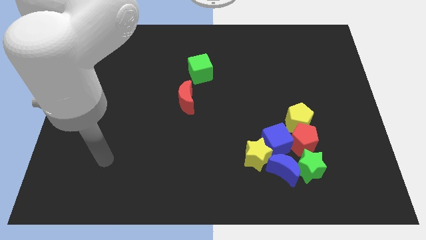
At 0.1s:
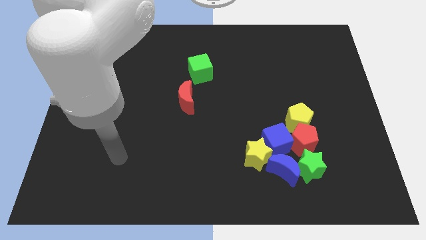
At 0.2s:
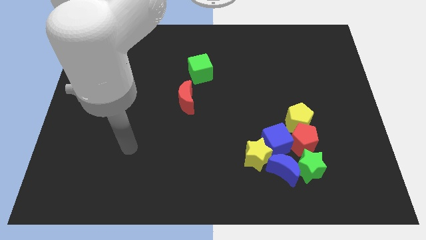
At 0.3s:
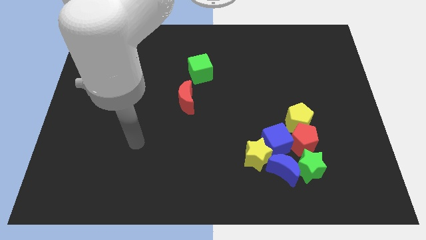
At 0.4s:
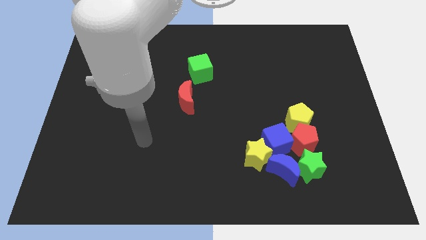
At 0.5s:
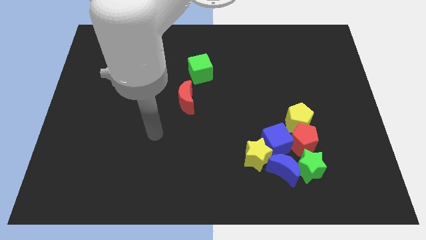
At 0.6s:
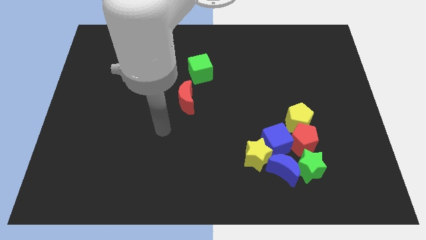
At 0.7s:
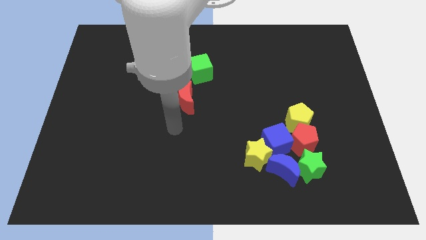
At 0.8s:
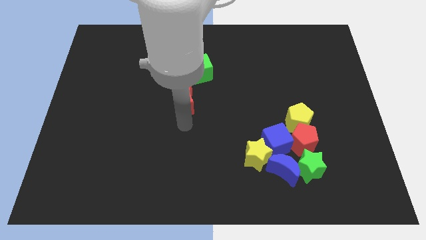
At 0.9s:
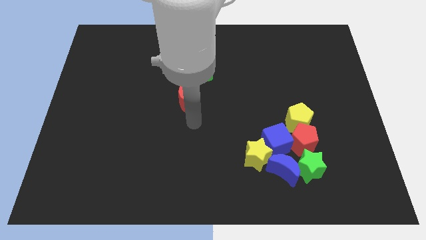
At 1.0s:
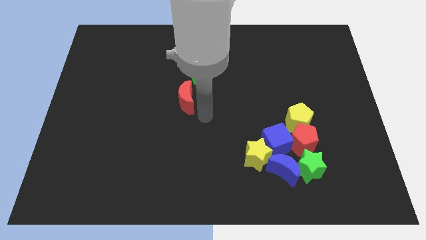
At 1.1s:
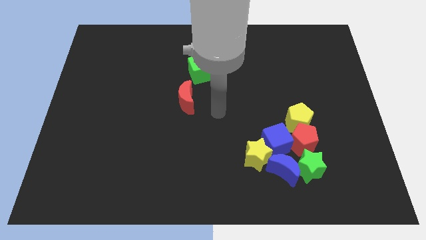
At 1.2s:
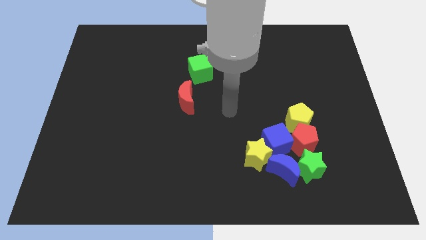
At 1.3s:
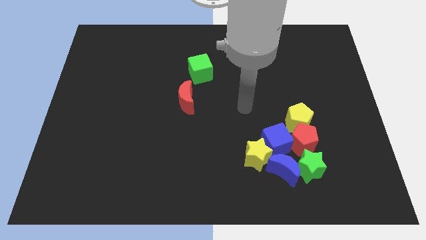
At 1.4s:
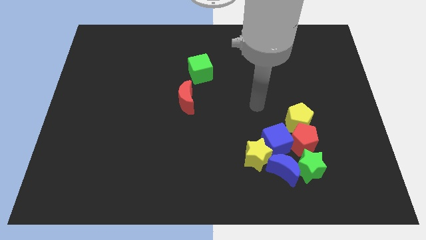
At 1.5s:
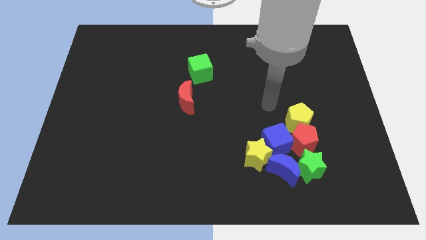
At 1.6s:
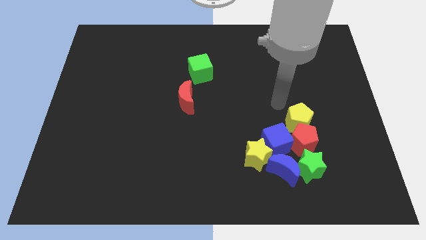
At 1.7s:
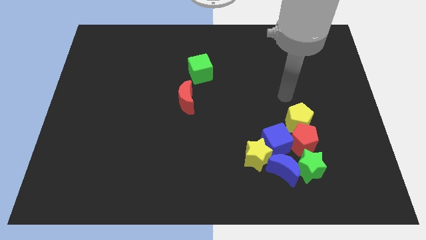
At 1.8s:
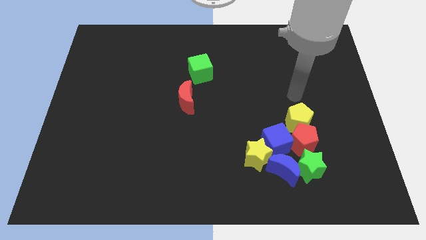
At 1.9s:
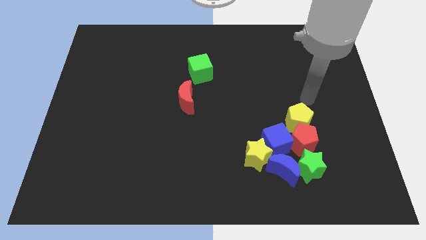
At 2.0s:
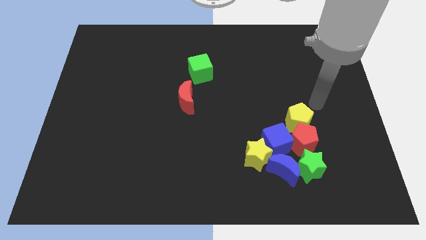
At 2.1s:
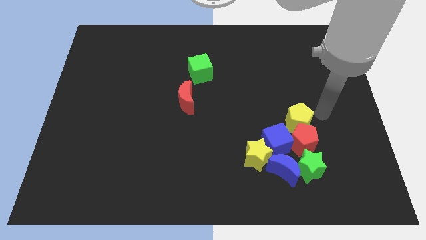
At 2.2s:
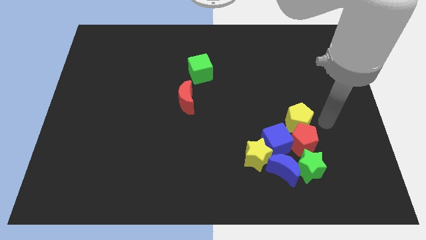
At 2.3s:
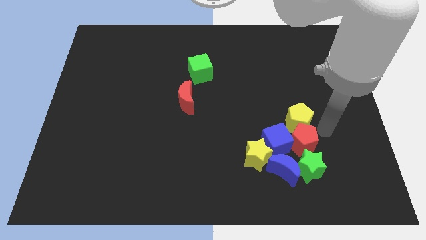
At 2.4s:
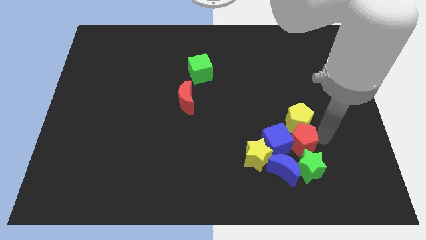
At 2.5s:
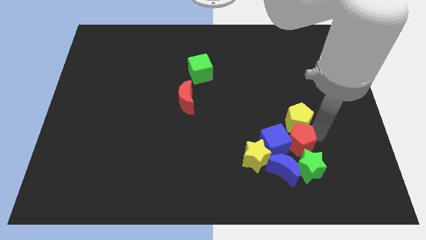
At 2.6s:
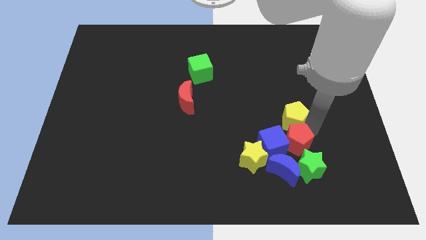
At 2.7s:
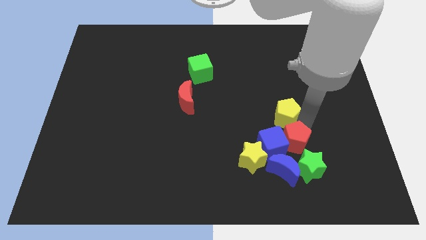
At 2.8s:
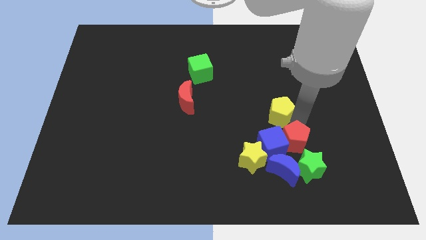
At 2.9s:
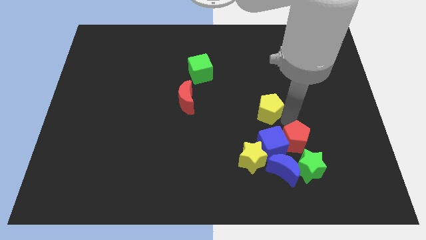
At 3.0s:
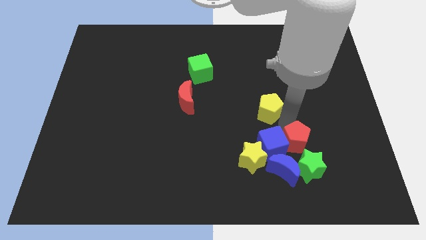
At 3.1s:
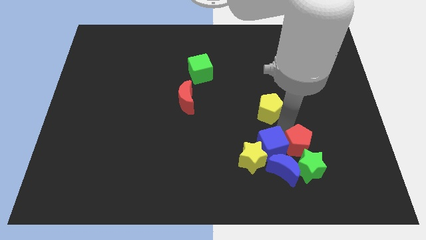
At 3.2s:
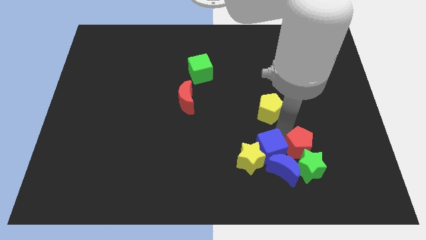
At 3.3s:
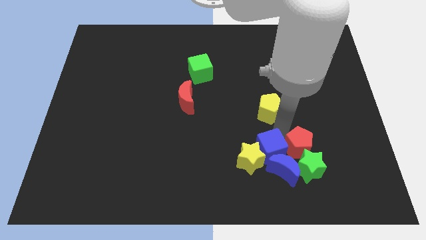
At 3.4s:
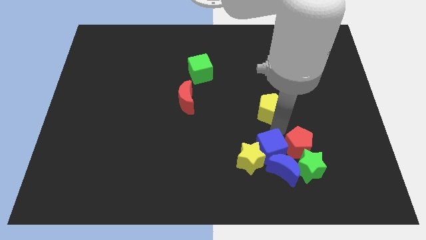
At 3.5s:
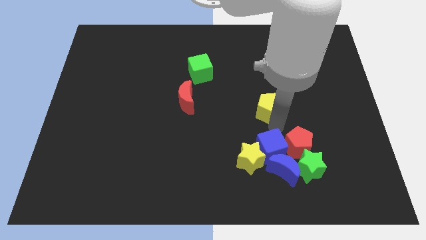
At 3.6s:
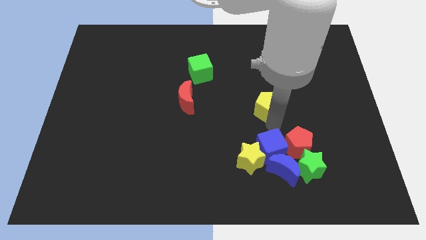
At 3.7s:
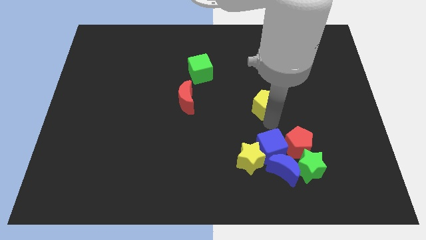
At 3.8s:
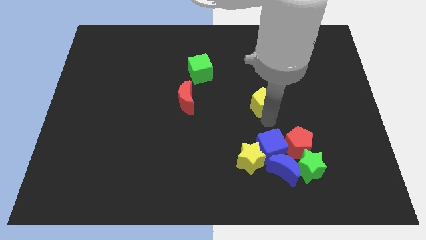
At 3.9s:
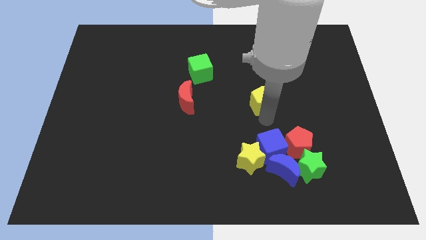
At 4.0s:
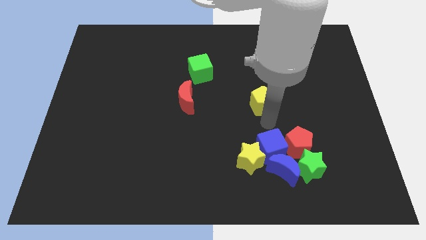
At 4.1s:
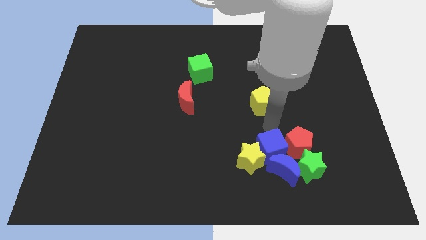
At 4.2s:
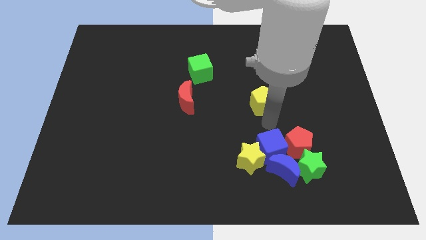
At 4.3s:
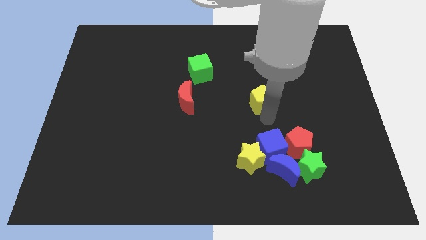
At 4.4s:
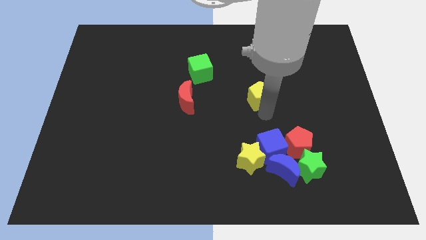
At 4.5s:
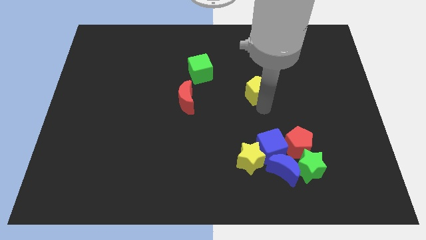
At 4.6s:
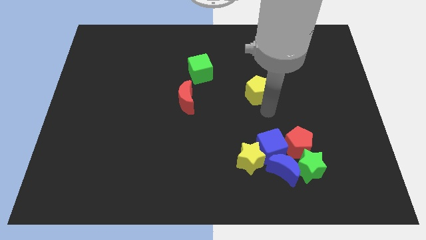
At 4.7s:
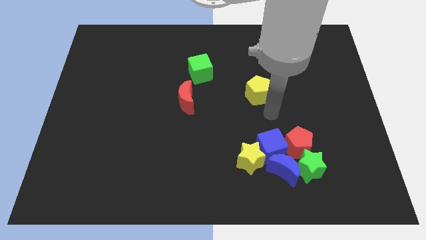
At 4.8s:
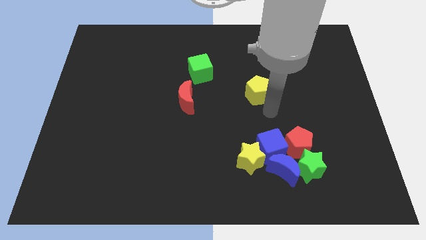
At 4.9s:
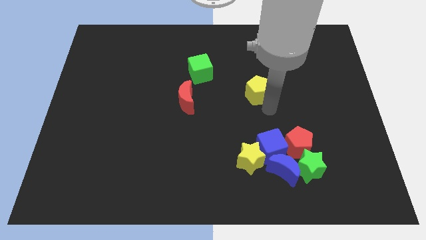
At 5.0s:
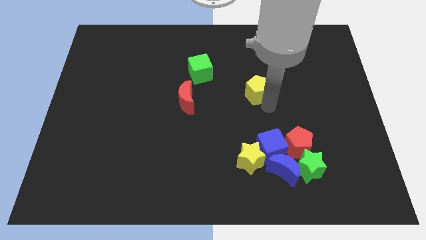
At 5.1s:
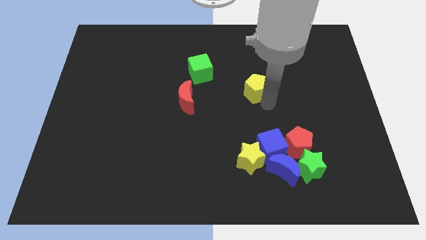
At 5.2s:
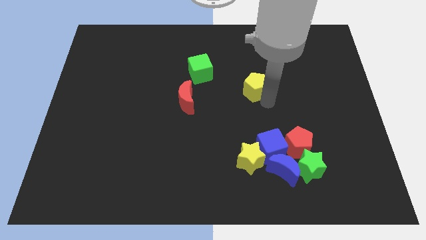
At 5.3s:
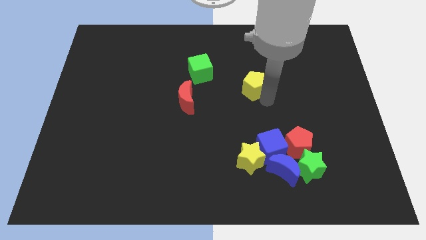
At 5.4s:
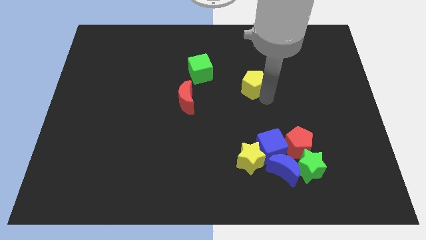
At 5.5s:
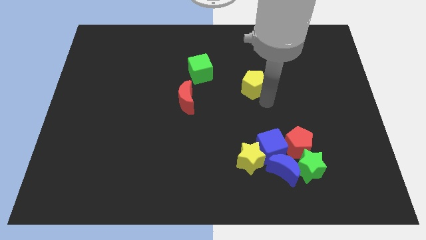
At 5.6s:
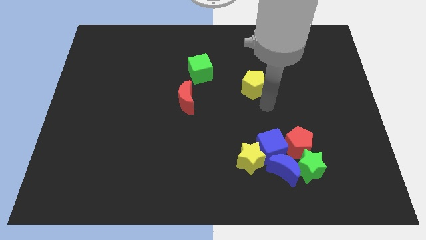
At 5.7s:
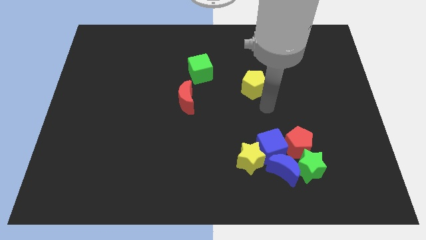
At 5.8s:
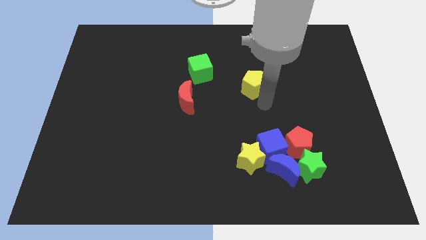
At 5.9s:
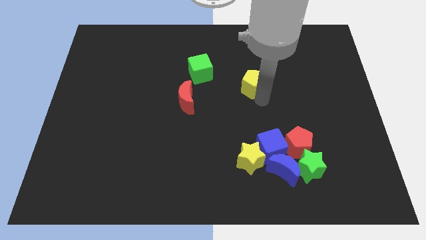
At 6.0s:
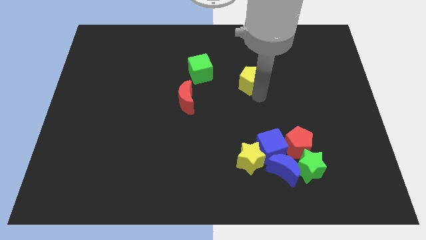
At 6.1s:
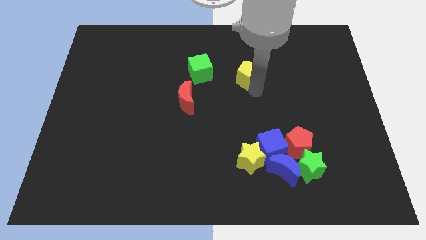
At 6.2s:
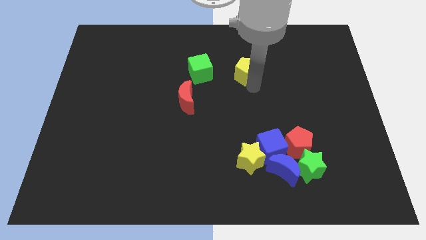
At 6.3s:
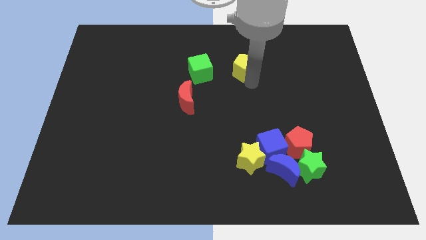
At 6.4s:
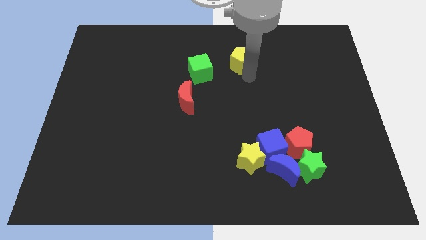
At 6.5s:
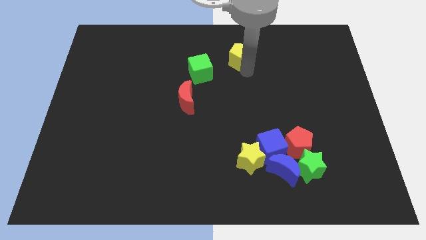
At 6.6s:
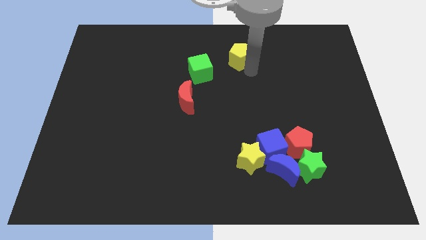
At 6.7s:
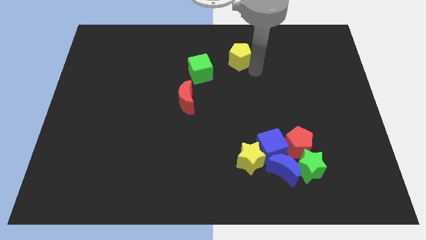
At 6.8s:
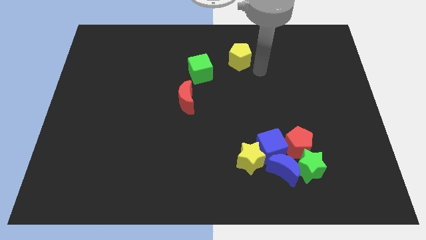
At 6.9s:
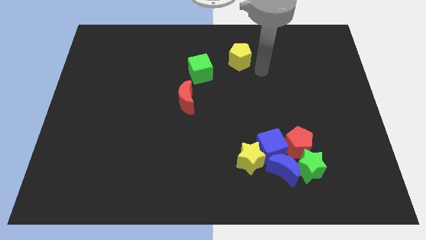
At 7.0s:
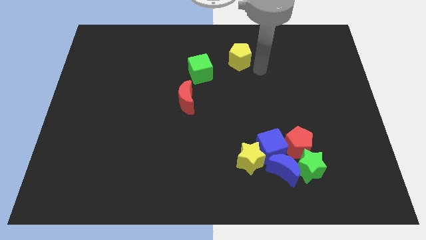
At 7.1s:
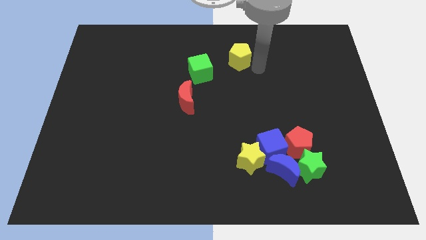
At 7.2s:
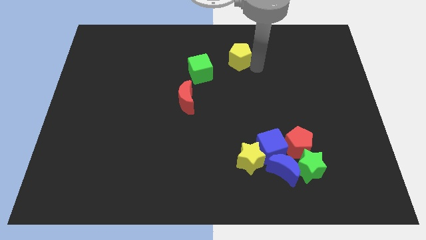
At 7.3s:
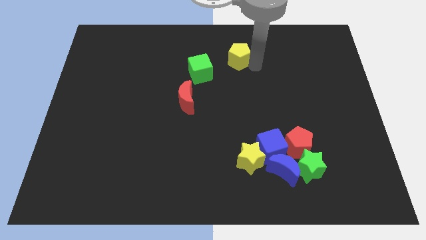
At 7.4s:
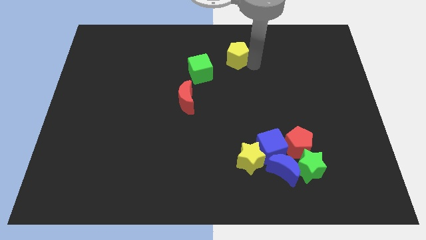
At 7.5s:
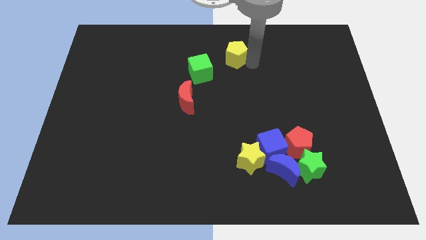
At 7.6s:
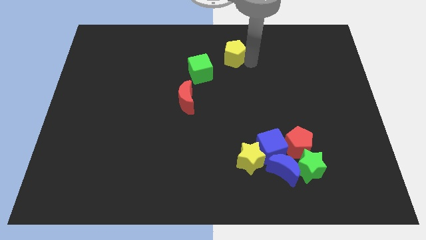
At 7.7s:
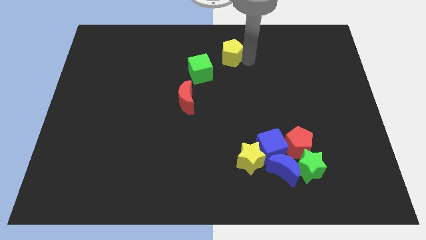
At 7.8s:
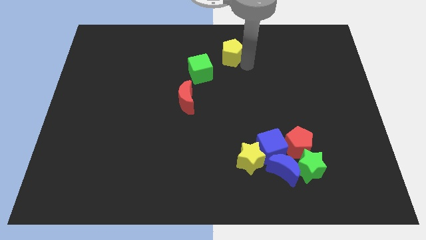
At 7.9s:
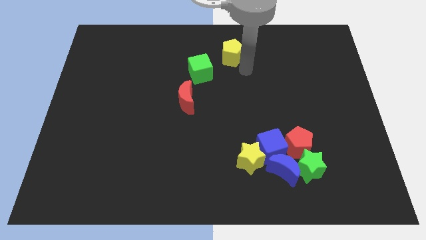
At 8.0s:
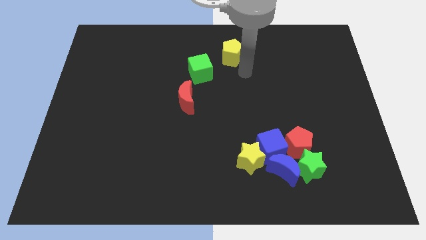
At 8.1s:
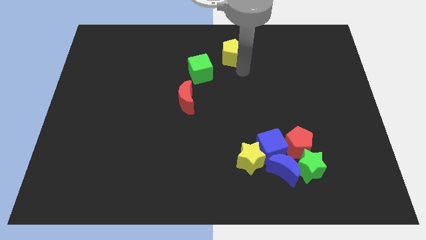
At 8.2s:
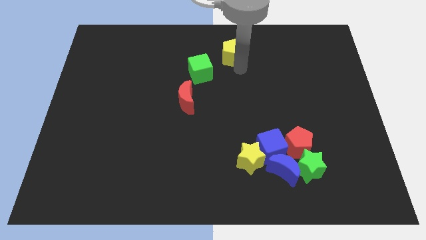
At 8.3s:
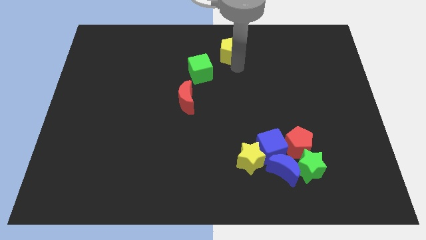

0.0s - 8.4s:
move the yellow pentagon to the top
